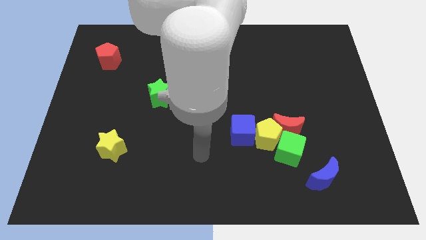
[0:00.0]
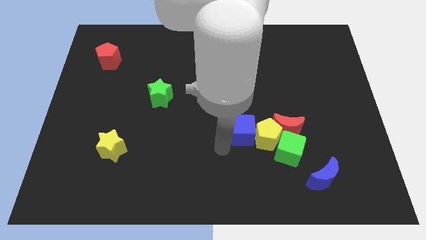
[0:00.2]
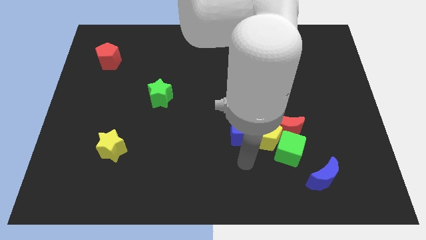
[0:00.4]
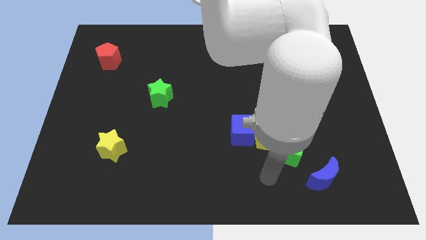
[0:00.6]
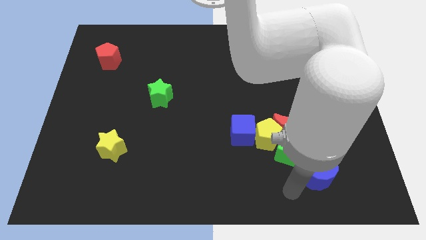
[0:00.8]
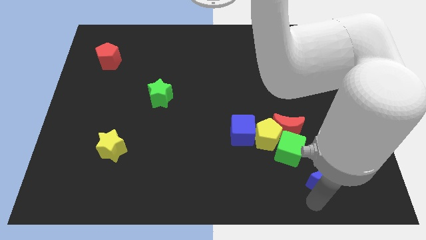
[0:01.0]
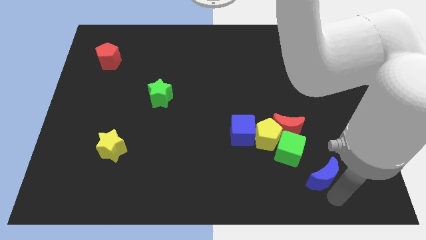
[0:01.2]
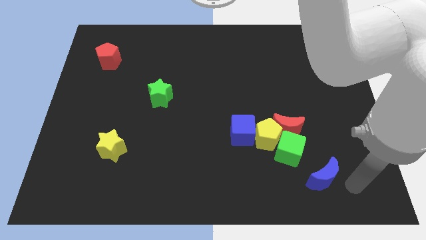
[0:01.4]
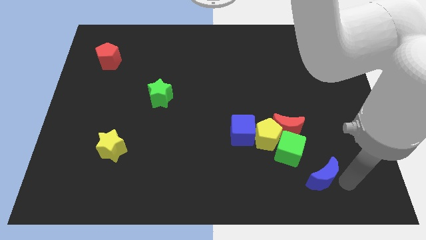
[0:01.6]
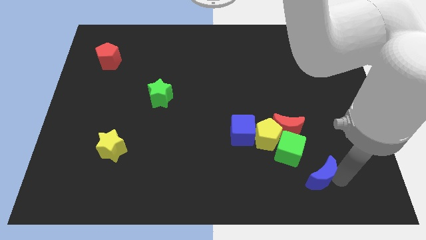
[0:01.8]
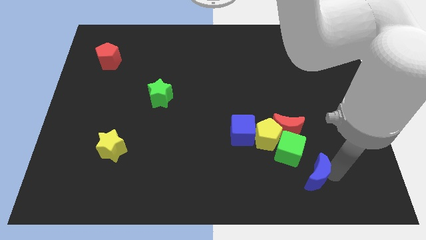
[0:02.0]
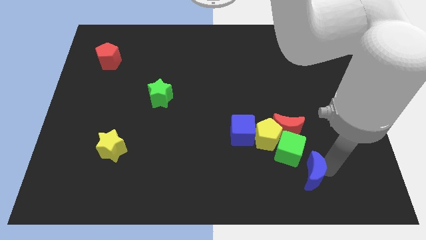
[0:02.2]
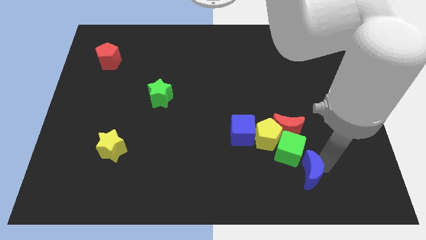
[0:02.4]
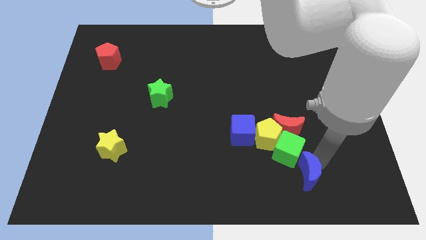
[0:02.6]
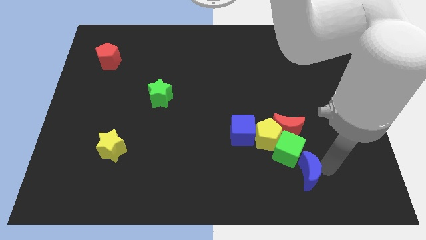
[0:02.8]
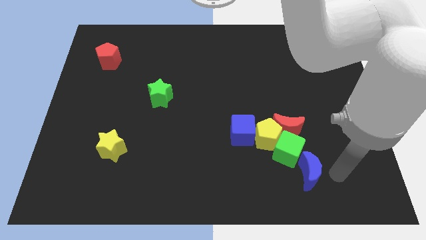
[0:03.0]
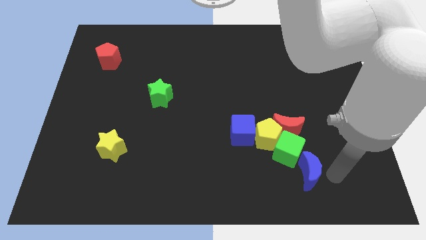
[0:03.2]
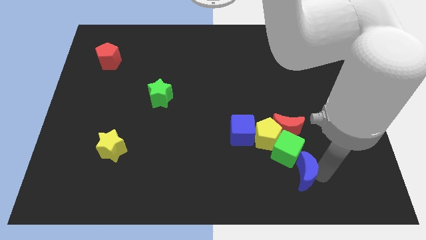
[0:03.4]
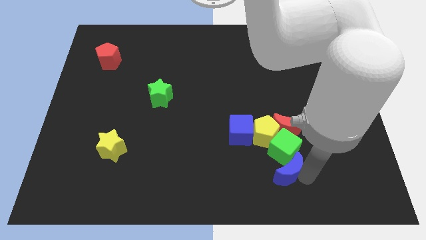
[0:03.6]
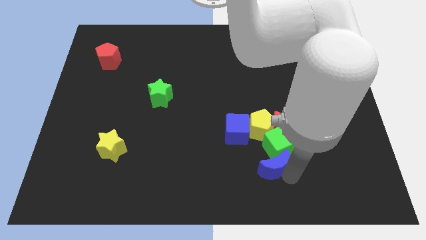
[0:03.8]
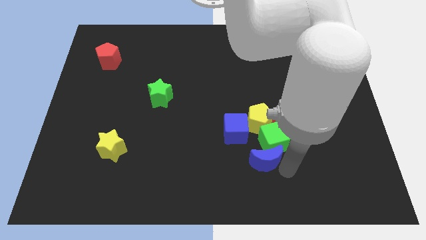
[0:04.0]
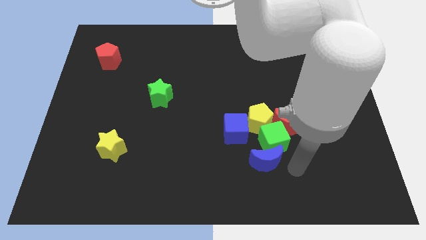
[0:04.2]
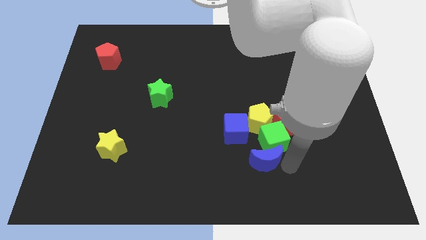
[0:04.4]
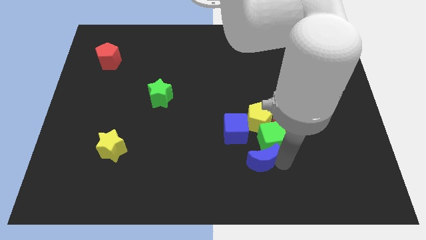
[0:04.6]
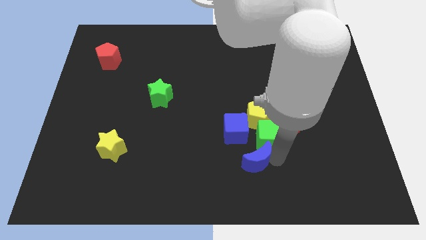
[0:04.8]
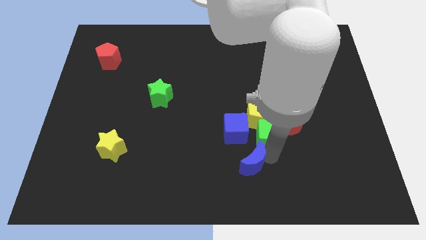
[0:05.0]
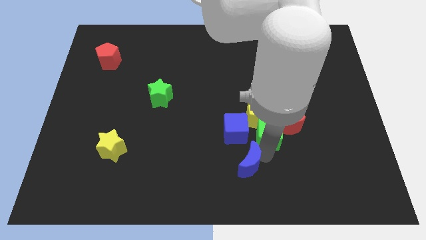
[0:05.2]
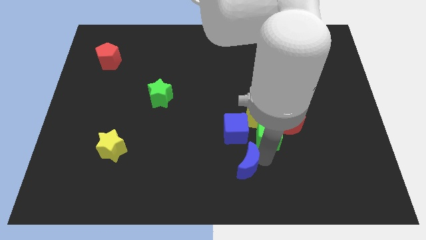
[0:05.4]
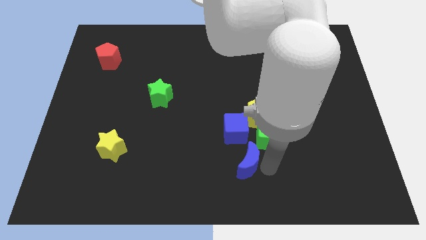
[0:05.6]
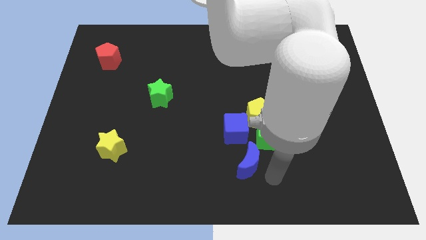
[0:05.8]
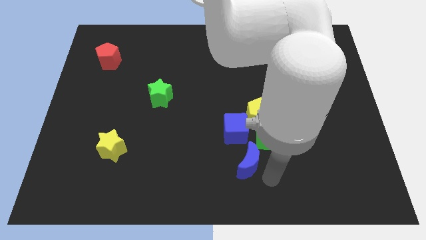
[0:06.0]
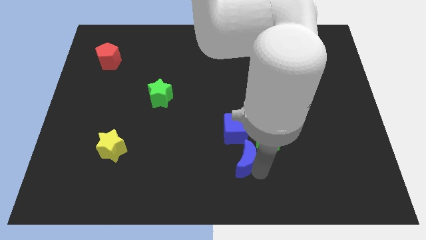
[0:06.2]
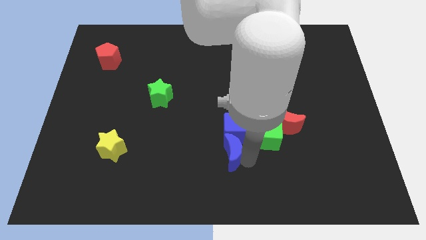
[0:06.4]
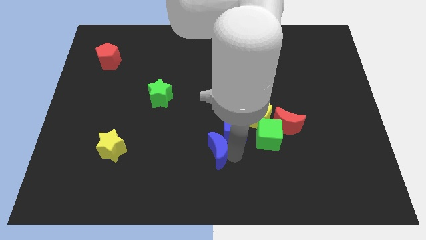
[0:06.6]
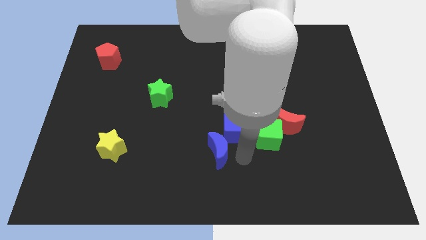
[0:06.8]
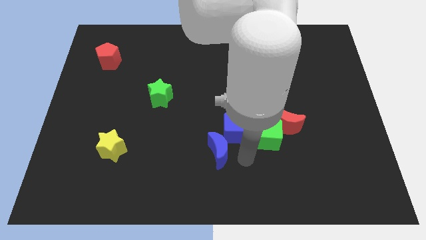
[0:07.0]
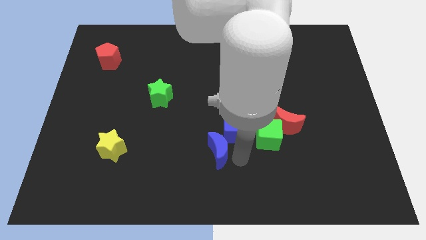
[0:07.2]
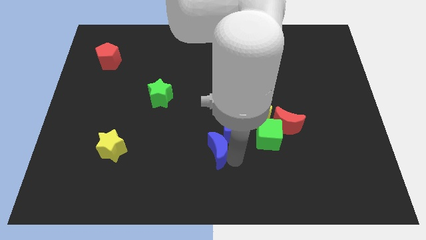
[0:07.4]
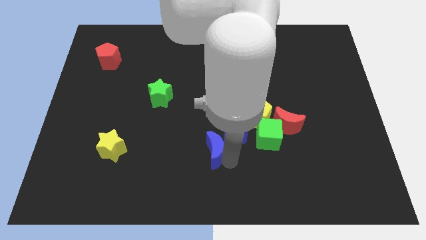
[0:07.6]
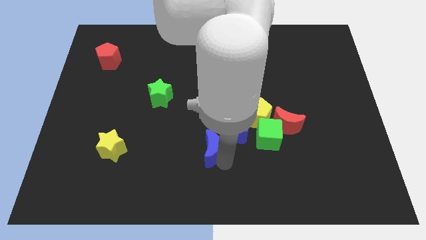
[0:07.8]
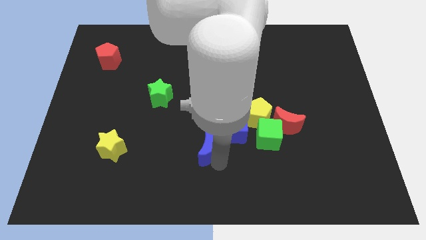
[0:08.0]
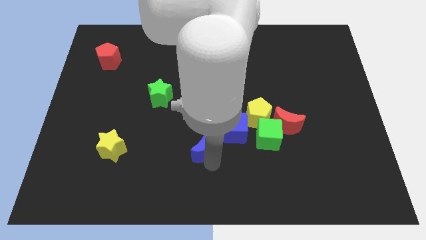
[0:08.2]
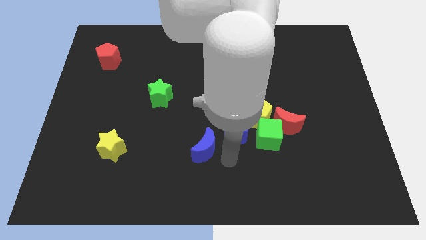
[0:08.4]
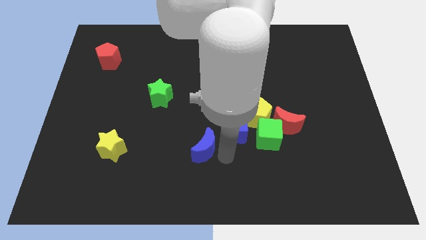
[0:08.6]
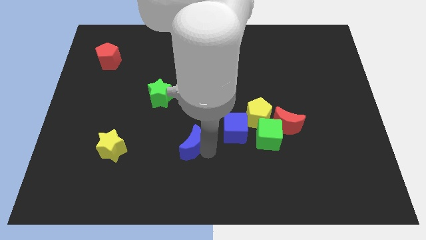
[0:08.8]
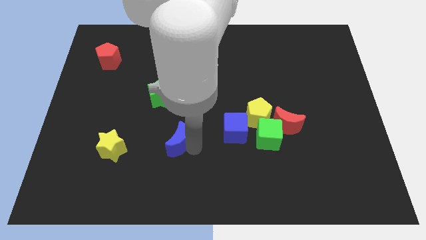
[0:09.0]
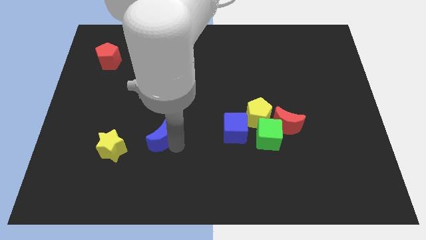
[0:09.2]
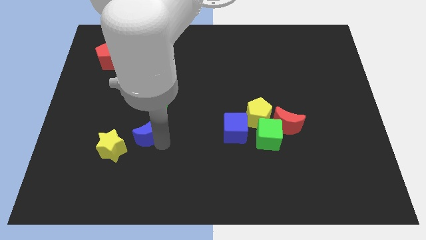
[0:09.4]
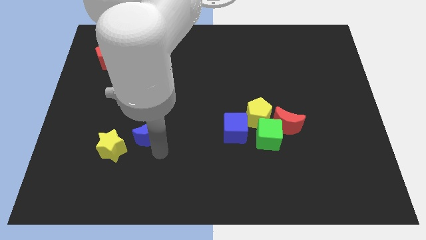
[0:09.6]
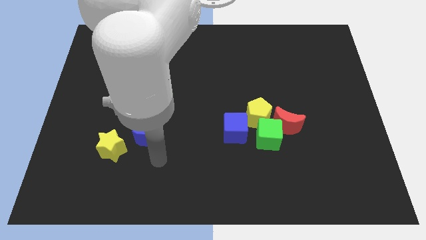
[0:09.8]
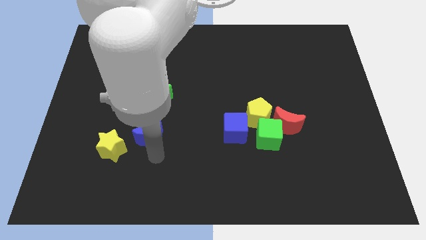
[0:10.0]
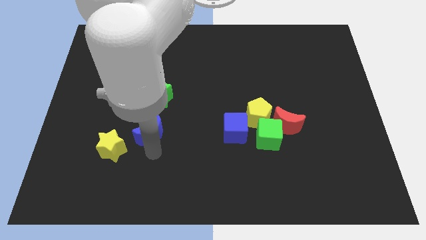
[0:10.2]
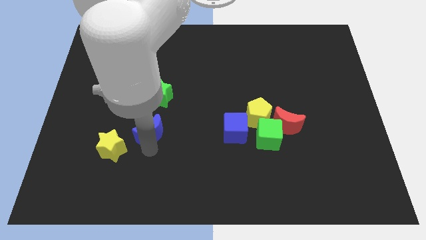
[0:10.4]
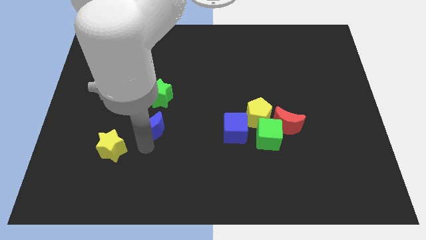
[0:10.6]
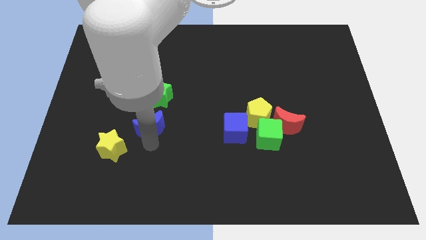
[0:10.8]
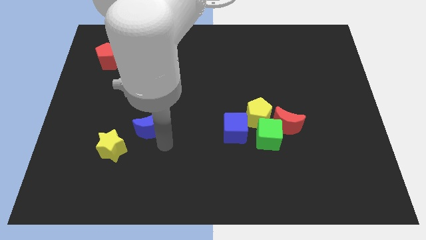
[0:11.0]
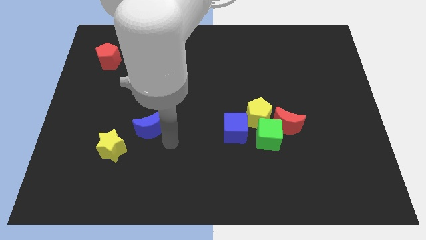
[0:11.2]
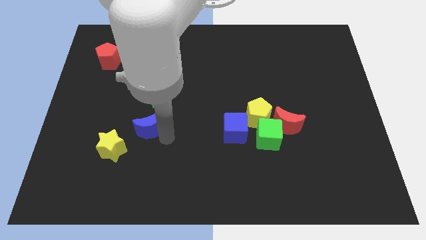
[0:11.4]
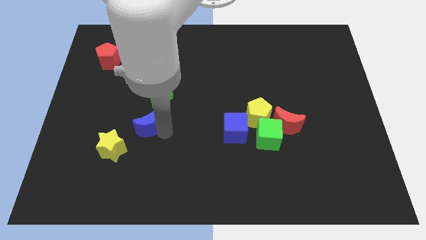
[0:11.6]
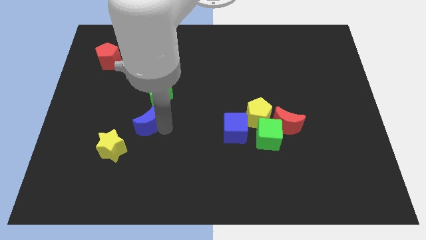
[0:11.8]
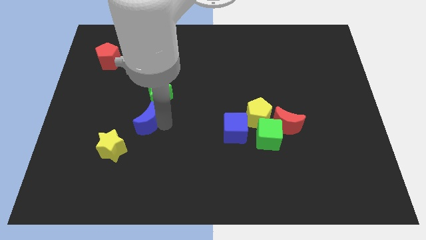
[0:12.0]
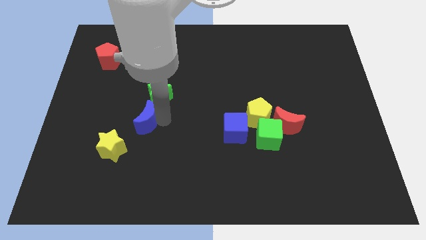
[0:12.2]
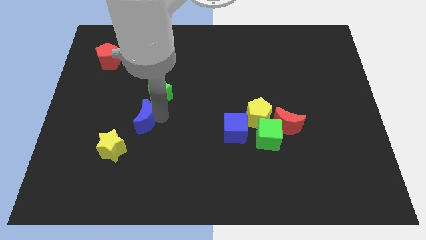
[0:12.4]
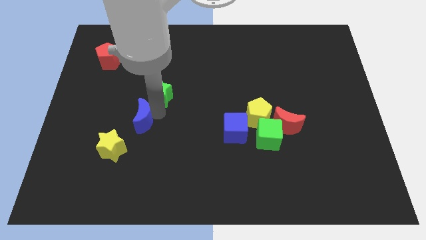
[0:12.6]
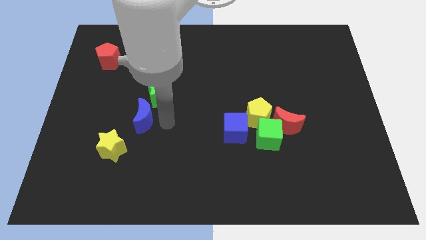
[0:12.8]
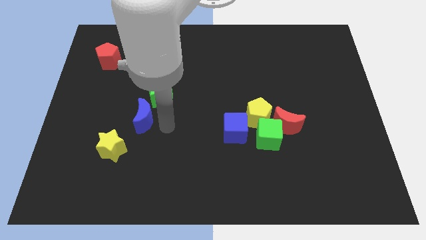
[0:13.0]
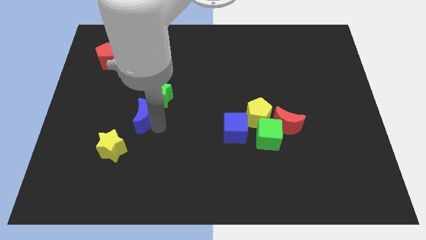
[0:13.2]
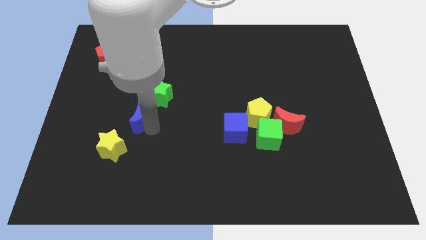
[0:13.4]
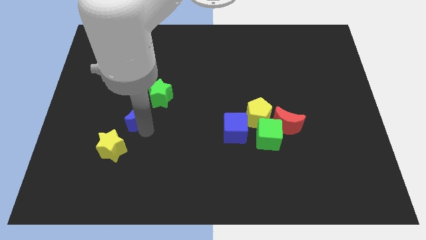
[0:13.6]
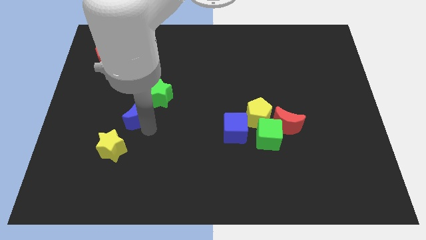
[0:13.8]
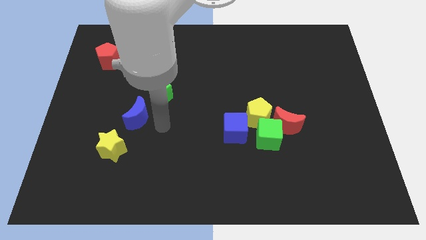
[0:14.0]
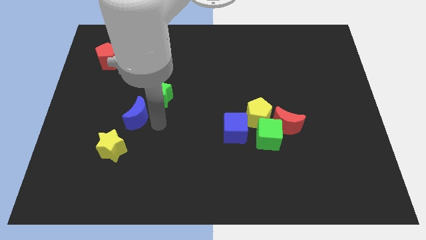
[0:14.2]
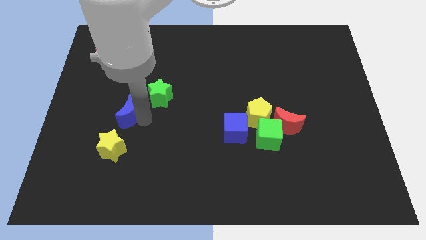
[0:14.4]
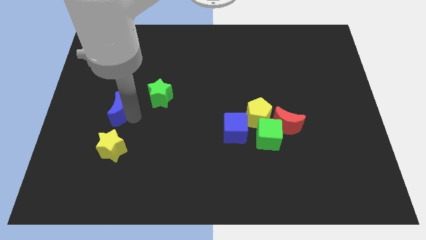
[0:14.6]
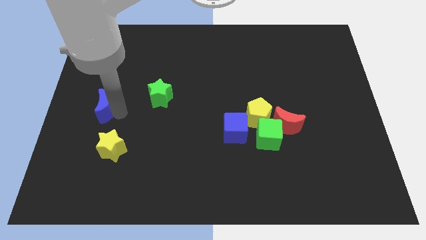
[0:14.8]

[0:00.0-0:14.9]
put the blue moon to the left side of the board
